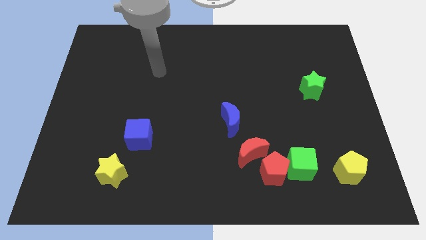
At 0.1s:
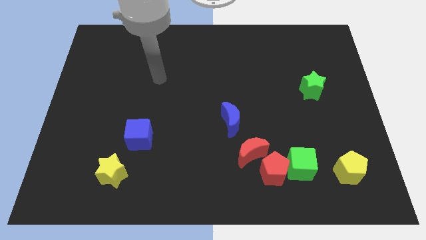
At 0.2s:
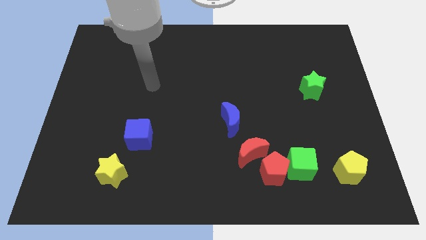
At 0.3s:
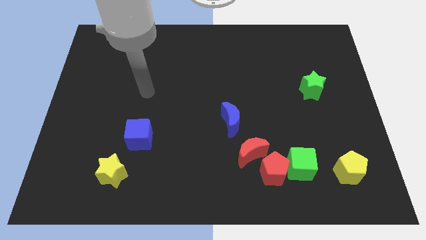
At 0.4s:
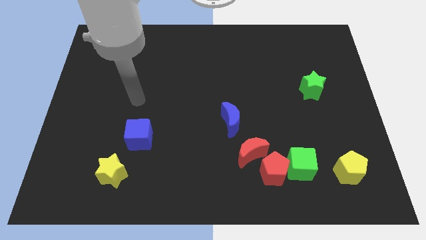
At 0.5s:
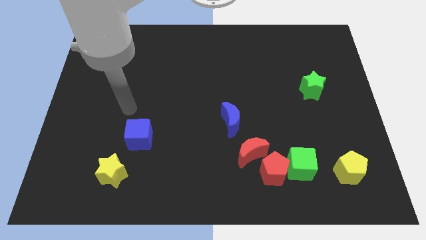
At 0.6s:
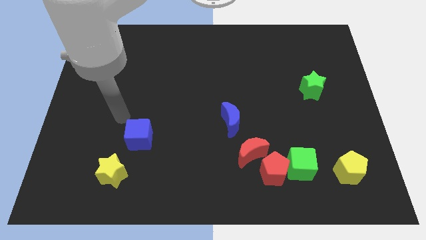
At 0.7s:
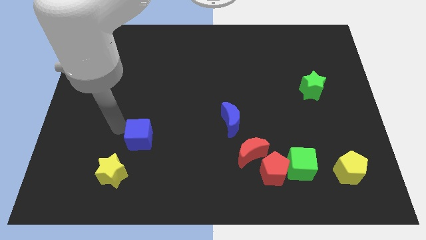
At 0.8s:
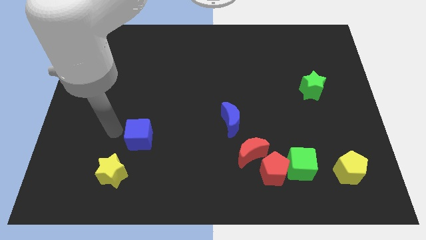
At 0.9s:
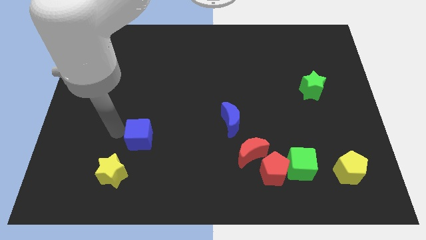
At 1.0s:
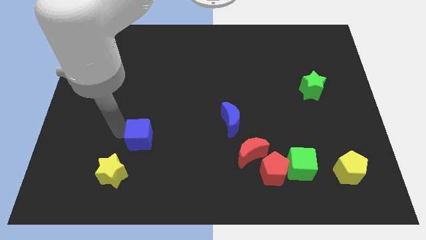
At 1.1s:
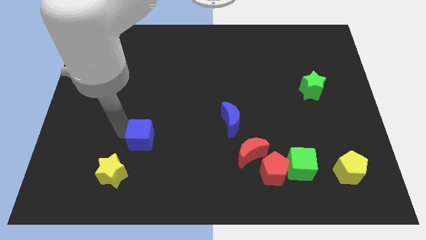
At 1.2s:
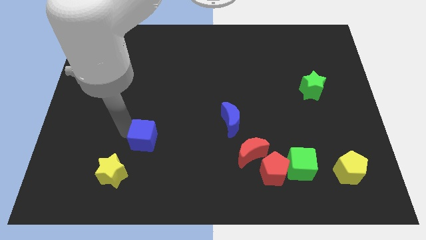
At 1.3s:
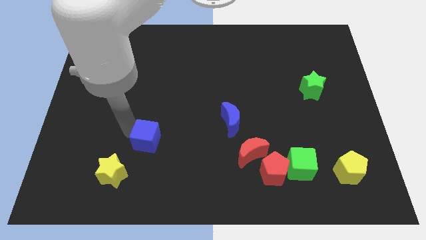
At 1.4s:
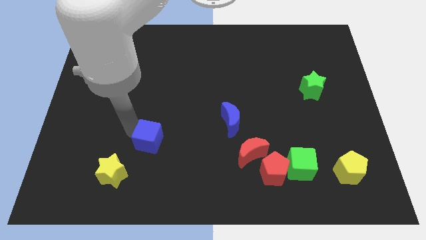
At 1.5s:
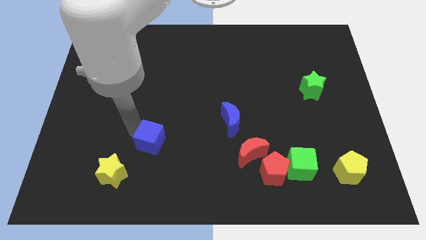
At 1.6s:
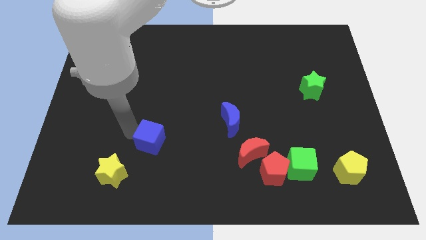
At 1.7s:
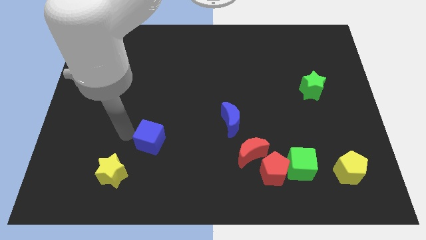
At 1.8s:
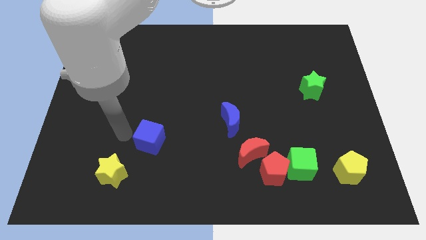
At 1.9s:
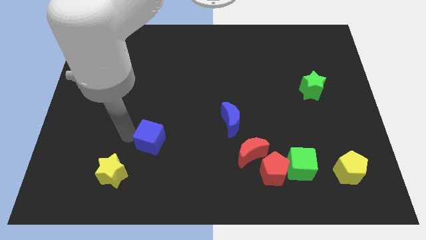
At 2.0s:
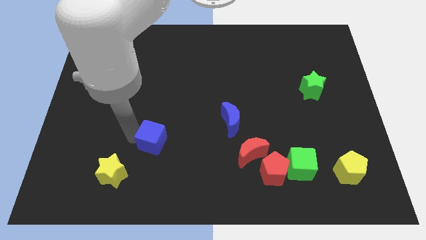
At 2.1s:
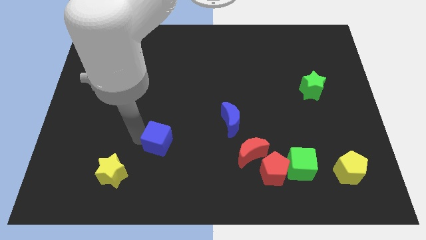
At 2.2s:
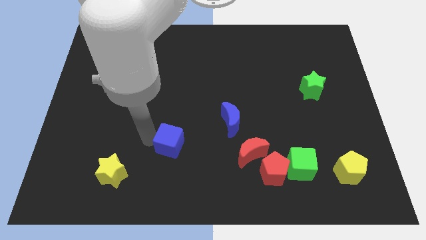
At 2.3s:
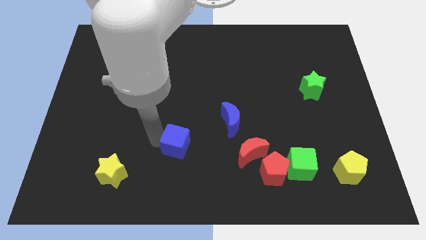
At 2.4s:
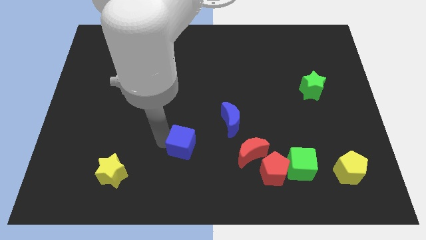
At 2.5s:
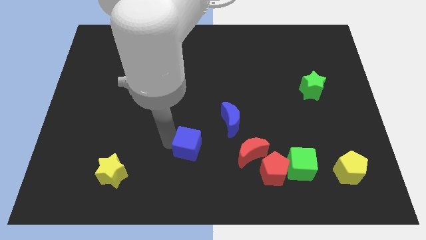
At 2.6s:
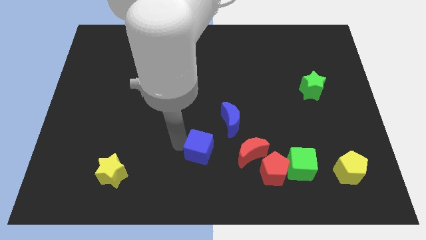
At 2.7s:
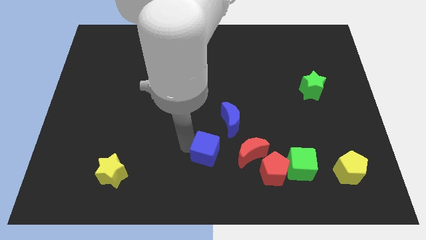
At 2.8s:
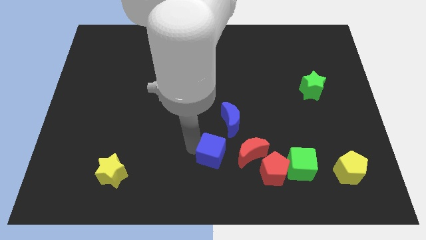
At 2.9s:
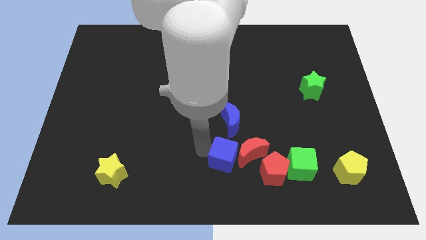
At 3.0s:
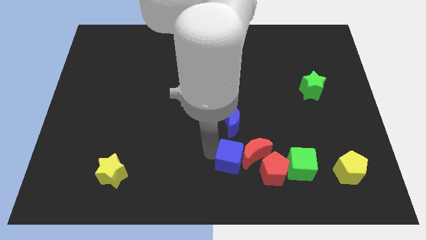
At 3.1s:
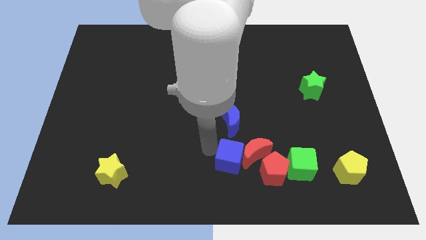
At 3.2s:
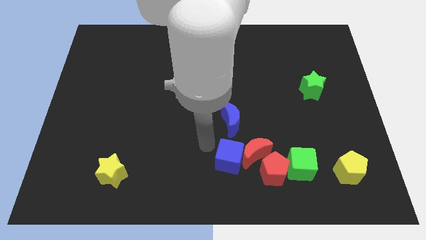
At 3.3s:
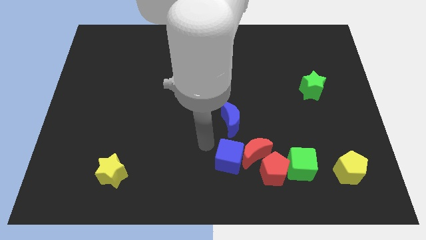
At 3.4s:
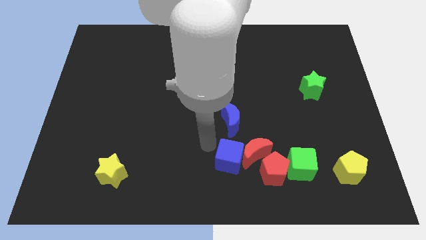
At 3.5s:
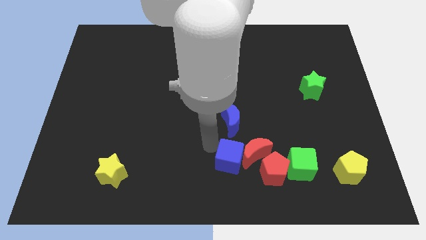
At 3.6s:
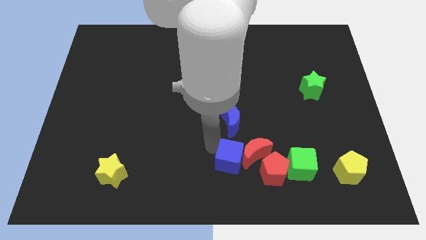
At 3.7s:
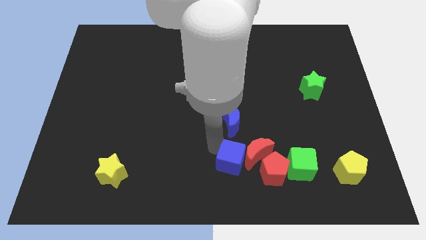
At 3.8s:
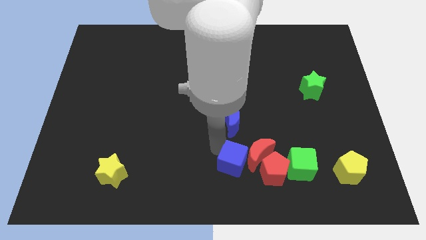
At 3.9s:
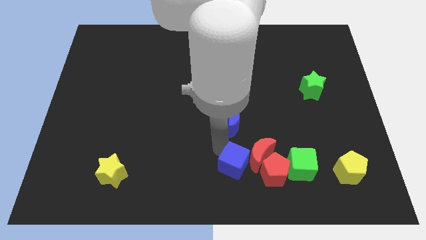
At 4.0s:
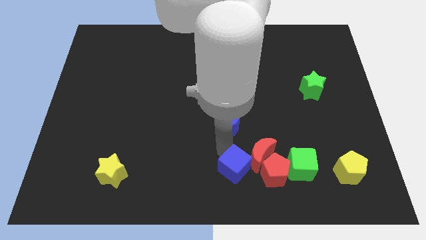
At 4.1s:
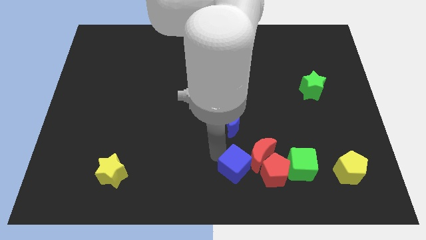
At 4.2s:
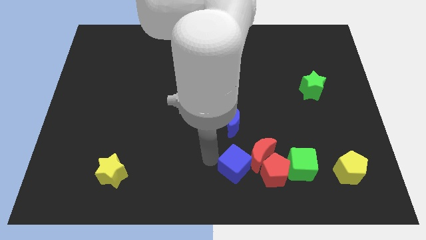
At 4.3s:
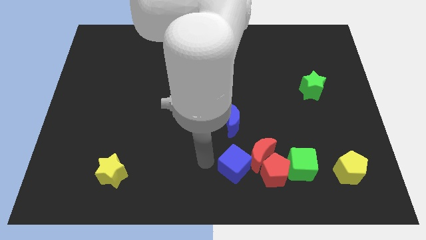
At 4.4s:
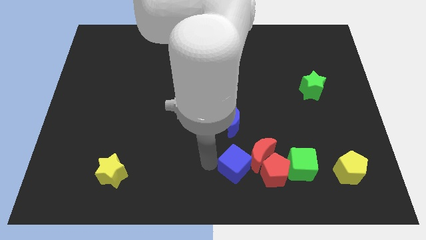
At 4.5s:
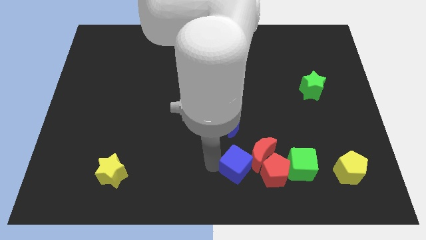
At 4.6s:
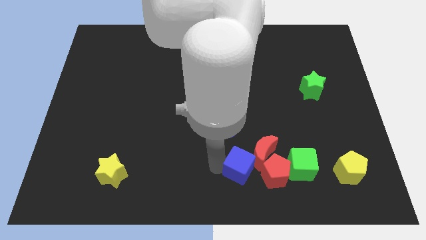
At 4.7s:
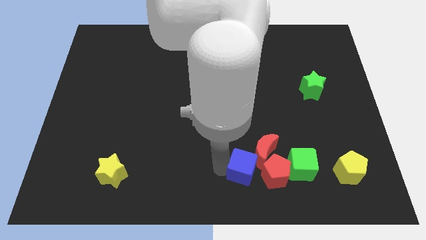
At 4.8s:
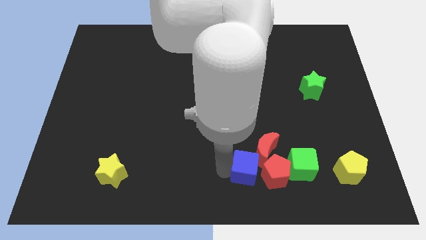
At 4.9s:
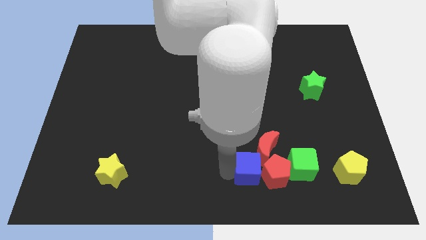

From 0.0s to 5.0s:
push the blue cube towards the red pentagon

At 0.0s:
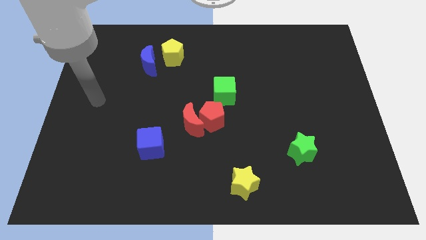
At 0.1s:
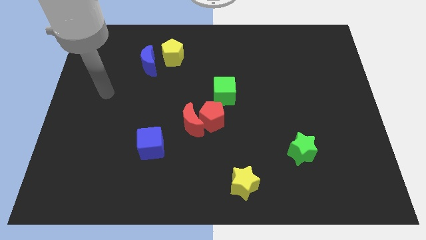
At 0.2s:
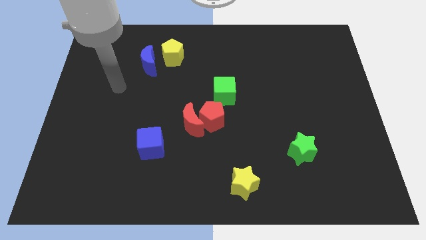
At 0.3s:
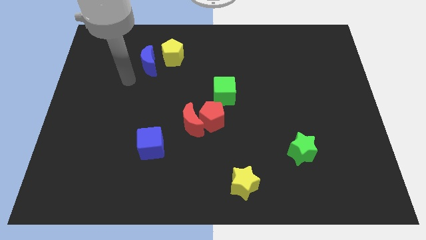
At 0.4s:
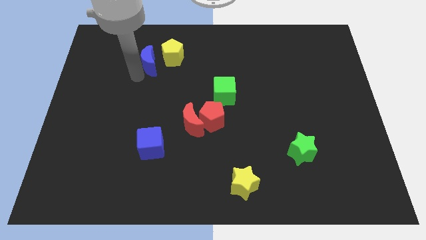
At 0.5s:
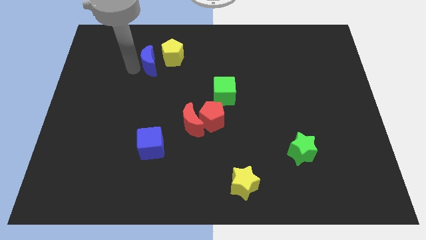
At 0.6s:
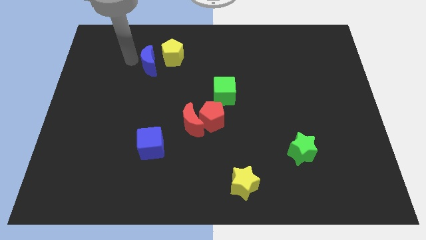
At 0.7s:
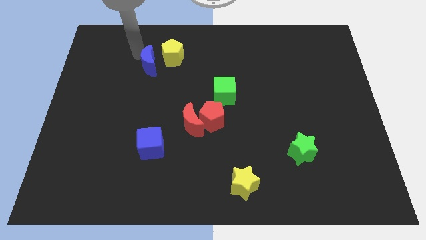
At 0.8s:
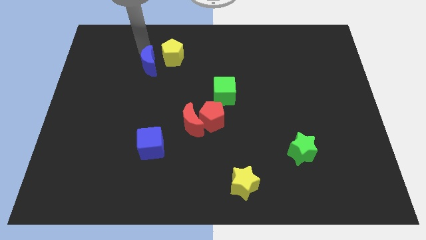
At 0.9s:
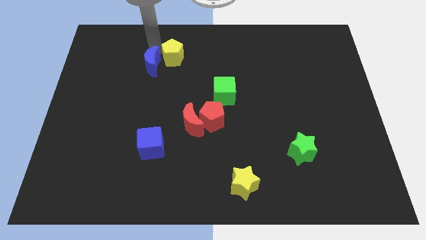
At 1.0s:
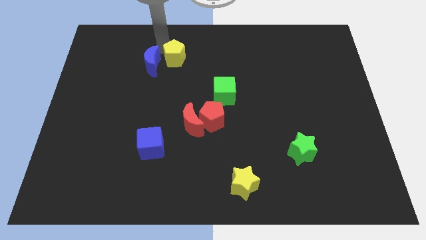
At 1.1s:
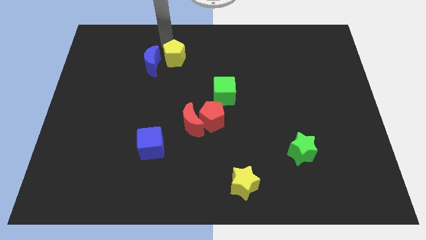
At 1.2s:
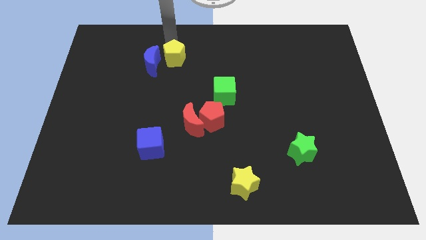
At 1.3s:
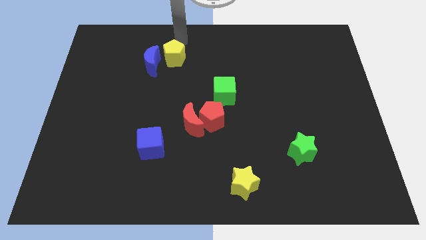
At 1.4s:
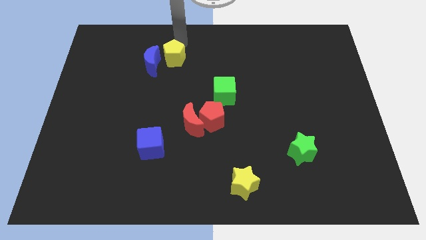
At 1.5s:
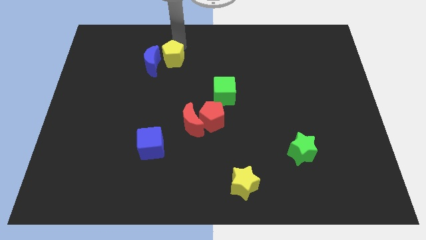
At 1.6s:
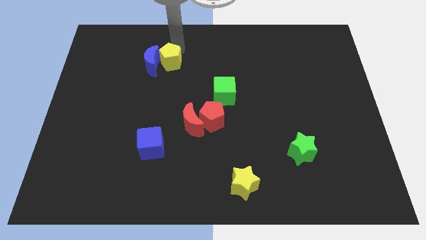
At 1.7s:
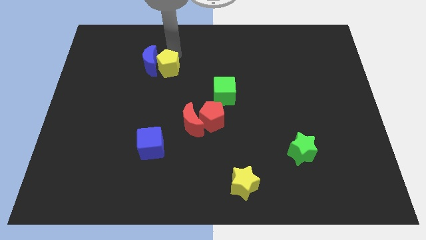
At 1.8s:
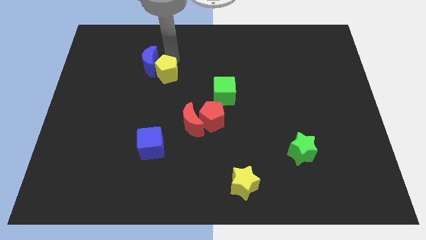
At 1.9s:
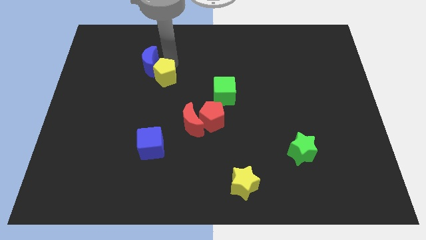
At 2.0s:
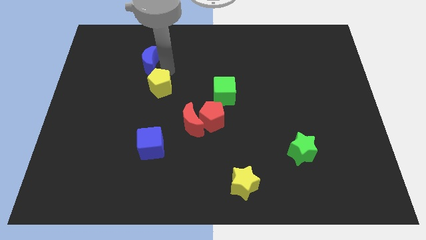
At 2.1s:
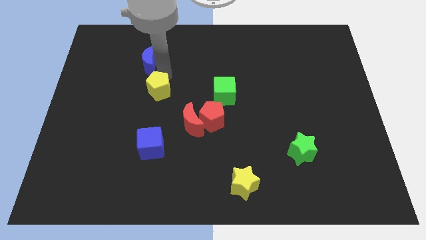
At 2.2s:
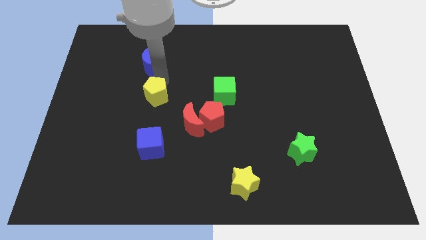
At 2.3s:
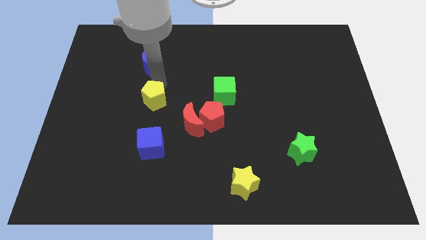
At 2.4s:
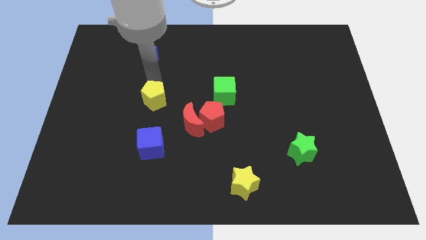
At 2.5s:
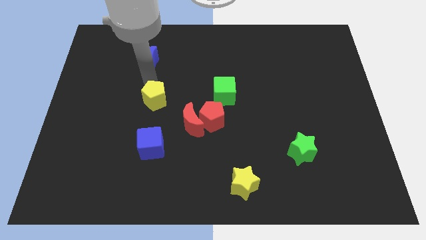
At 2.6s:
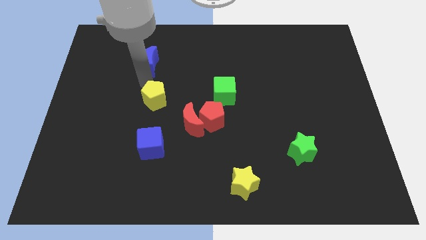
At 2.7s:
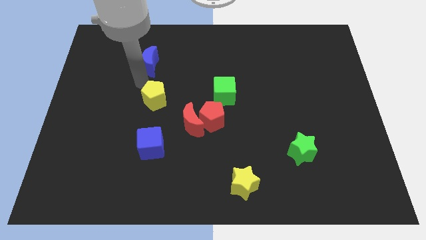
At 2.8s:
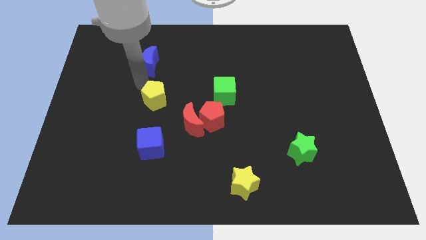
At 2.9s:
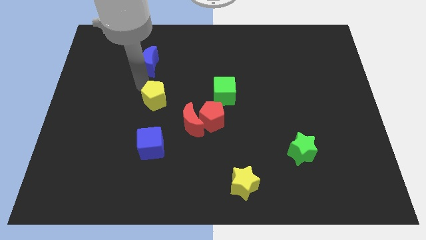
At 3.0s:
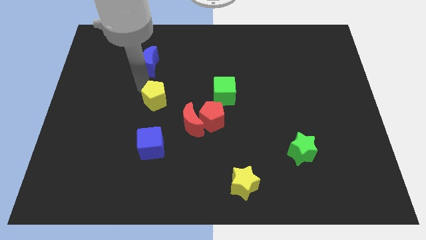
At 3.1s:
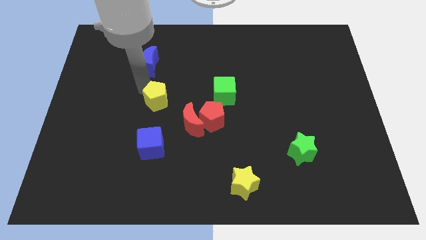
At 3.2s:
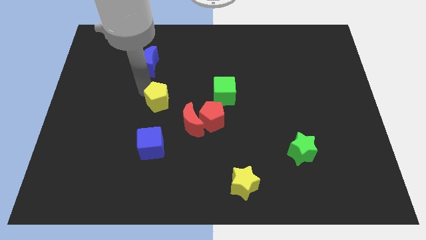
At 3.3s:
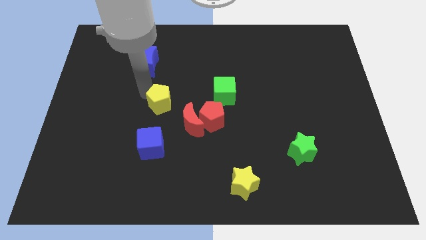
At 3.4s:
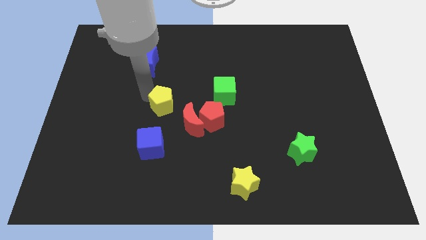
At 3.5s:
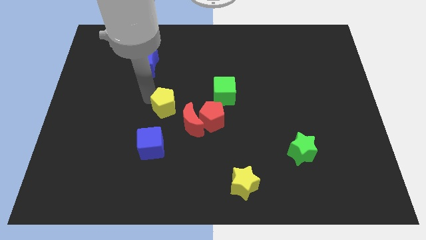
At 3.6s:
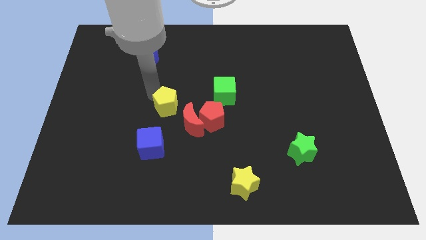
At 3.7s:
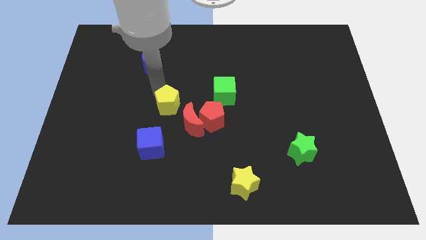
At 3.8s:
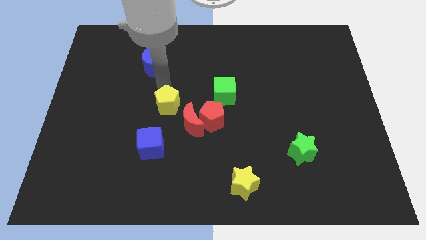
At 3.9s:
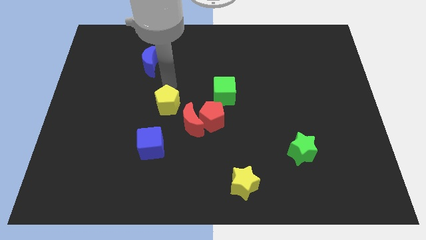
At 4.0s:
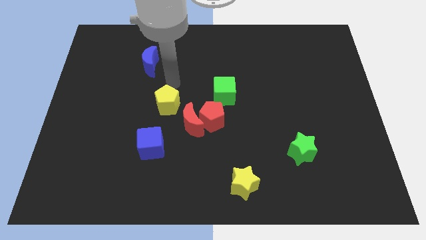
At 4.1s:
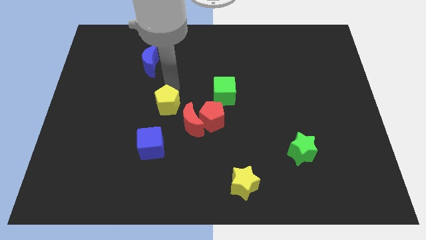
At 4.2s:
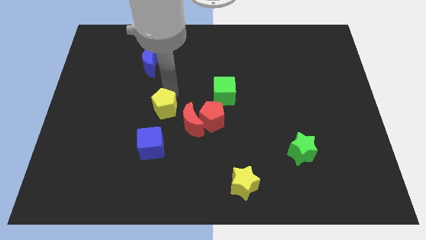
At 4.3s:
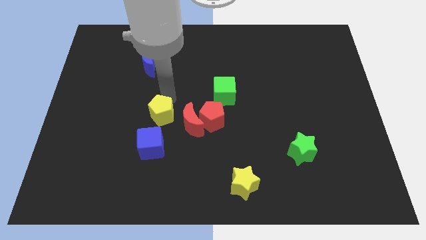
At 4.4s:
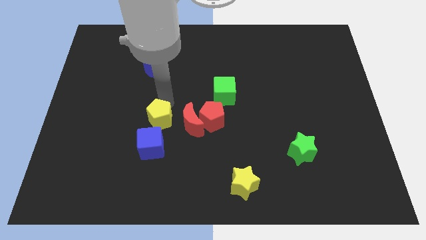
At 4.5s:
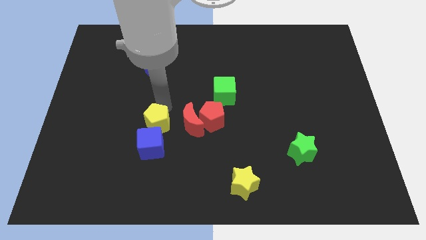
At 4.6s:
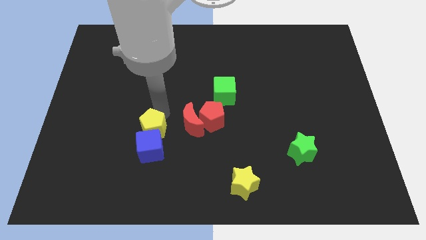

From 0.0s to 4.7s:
move the yellow pentagon towards the blue cube
